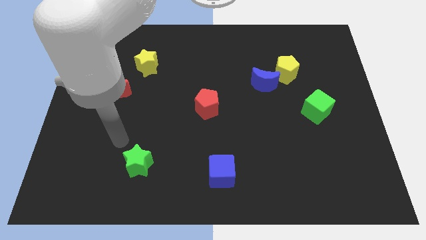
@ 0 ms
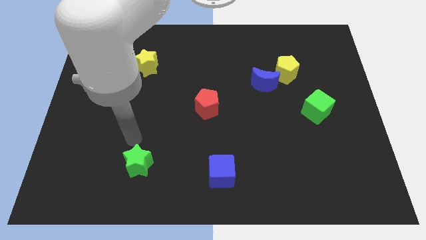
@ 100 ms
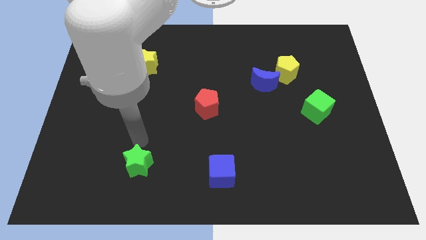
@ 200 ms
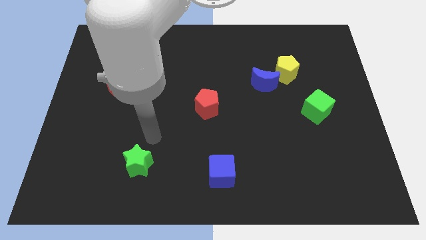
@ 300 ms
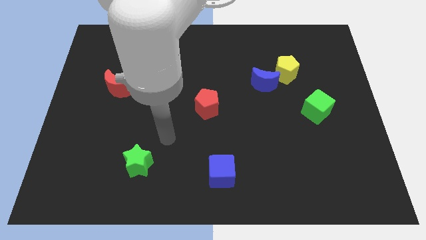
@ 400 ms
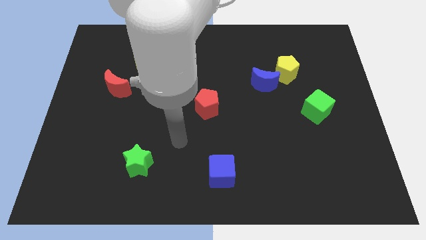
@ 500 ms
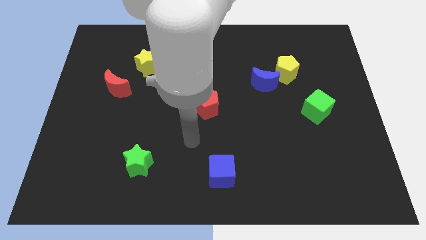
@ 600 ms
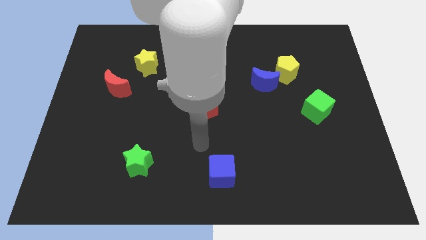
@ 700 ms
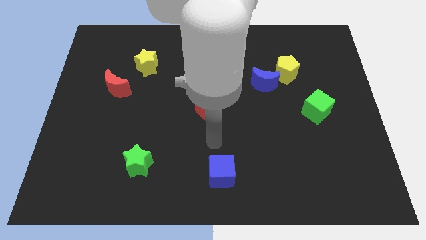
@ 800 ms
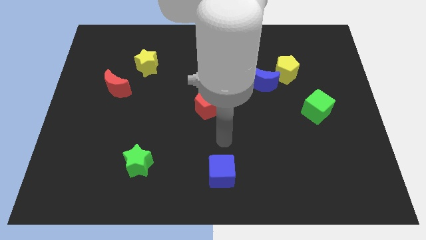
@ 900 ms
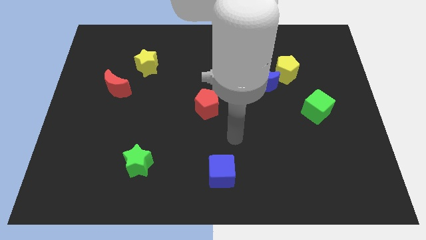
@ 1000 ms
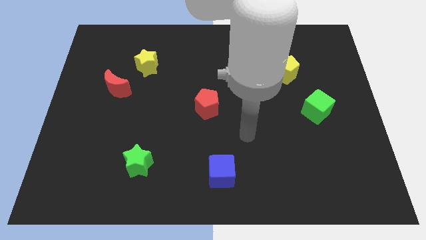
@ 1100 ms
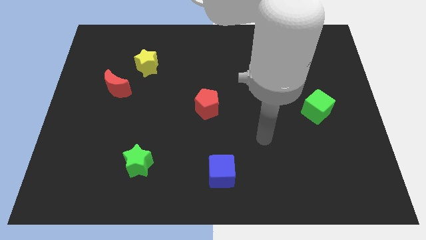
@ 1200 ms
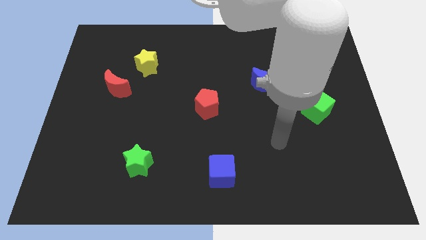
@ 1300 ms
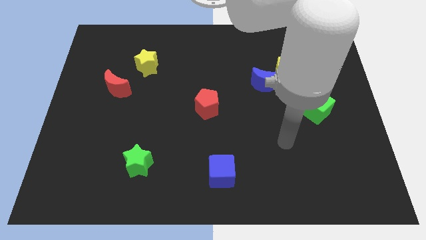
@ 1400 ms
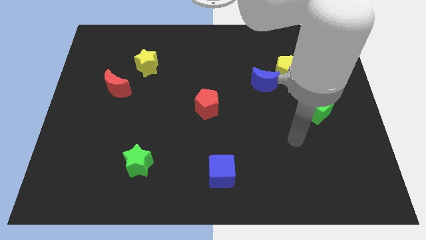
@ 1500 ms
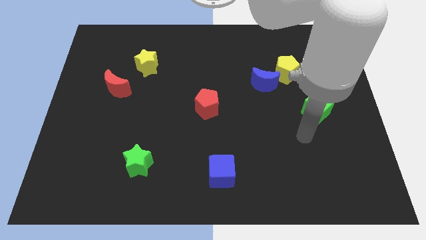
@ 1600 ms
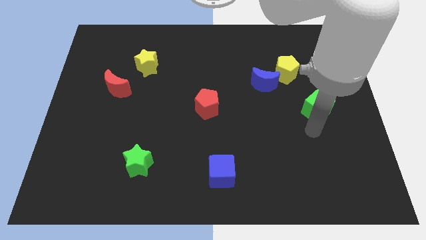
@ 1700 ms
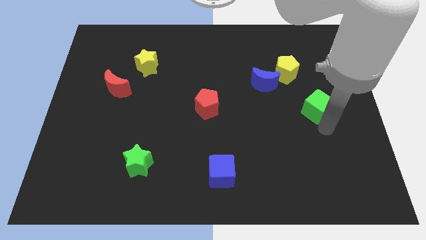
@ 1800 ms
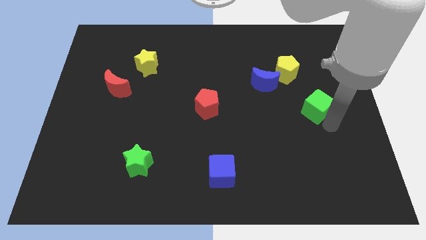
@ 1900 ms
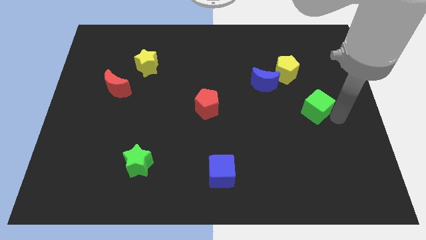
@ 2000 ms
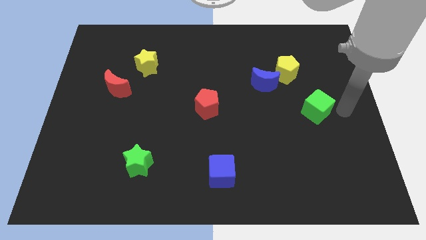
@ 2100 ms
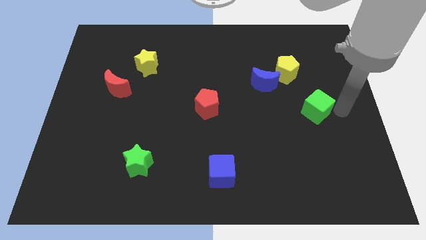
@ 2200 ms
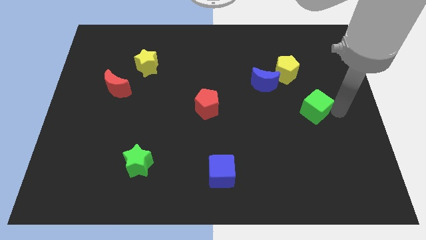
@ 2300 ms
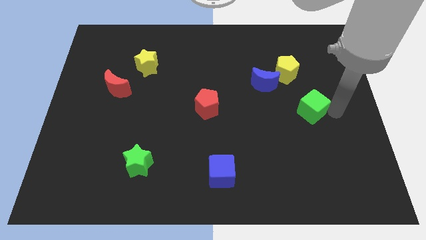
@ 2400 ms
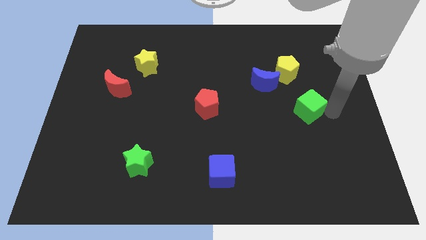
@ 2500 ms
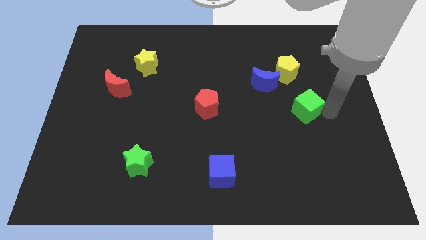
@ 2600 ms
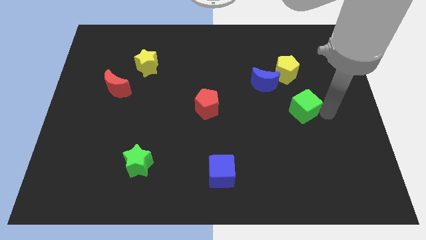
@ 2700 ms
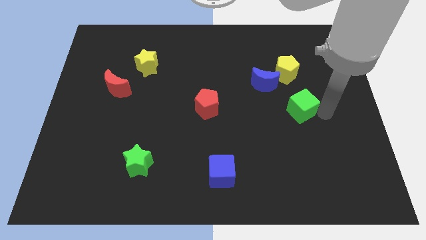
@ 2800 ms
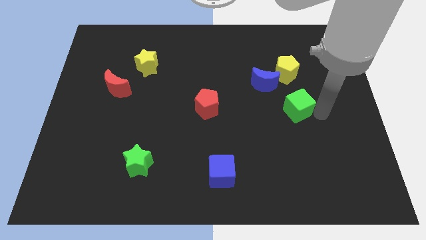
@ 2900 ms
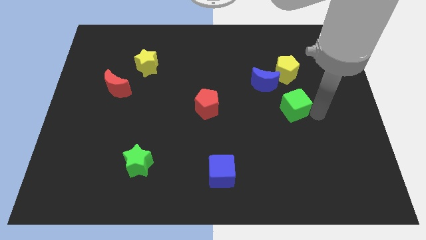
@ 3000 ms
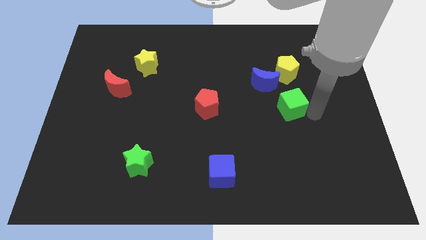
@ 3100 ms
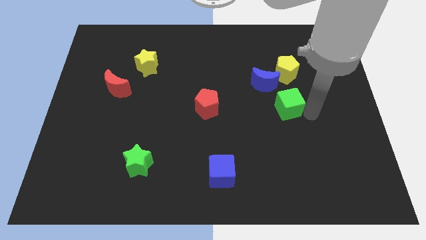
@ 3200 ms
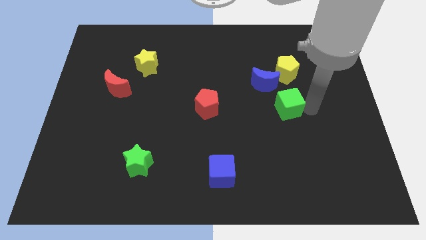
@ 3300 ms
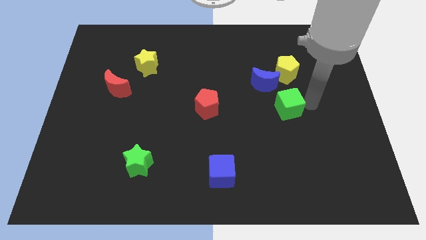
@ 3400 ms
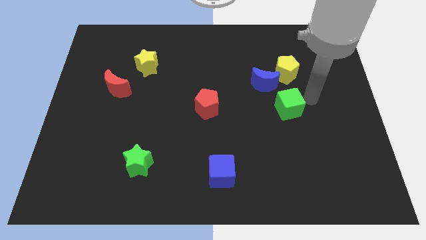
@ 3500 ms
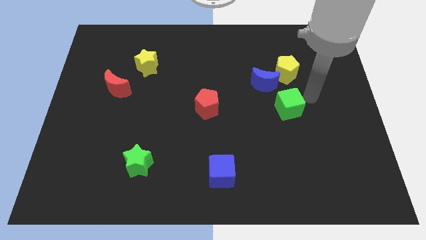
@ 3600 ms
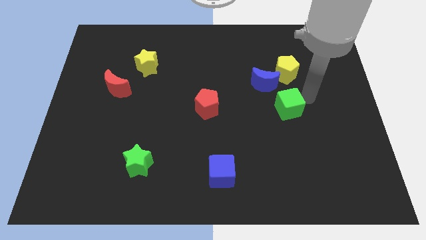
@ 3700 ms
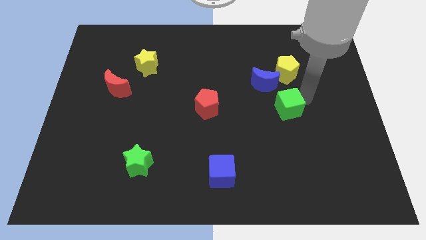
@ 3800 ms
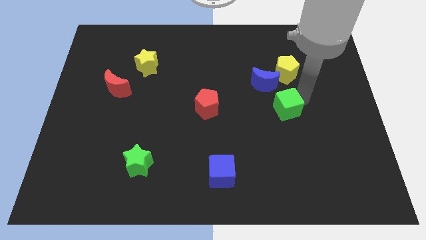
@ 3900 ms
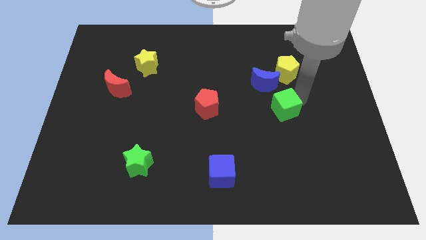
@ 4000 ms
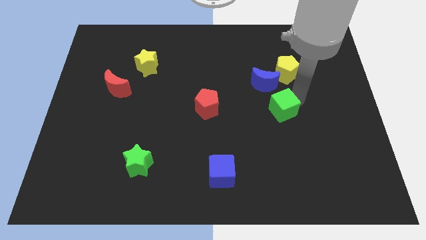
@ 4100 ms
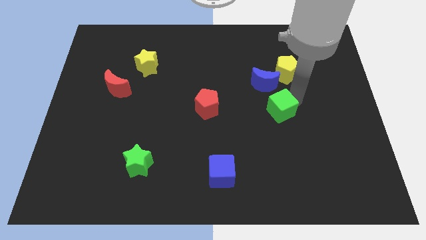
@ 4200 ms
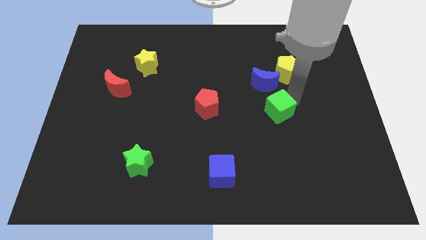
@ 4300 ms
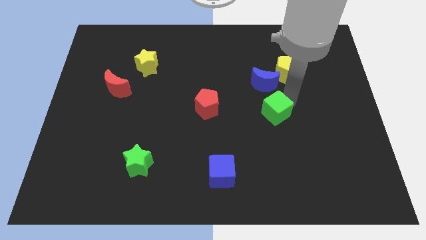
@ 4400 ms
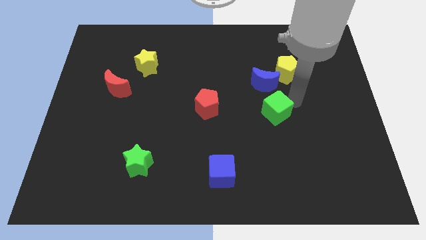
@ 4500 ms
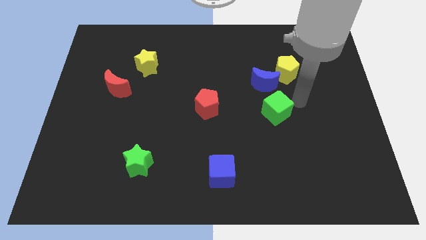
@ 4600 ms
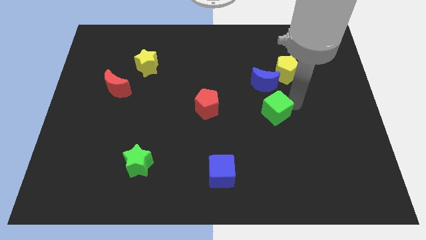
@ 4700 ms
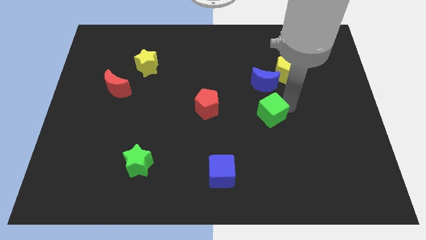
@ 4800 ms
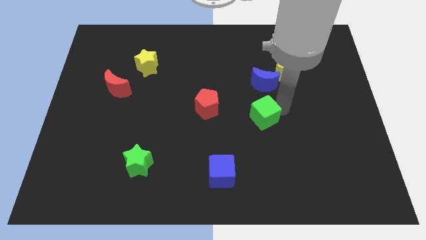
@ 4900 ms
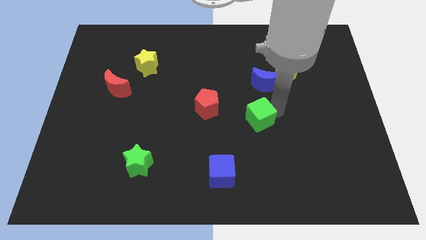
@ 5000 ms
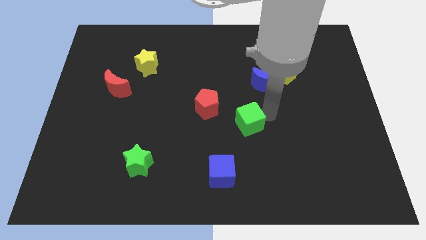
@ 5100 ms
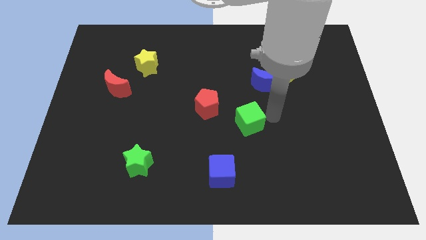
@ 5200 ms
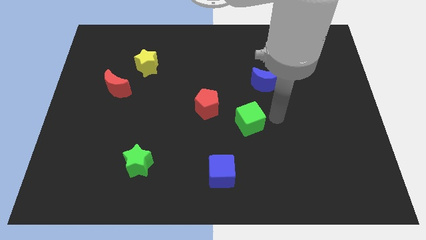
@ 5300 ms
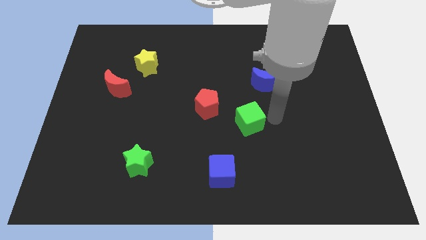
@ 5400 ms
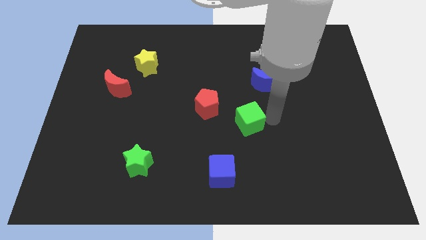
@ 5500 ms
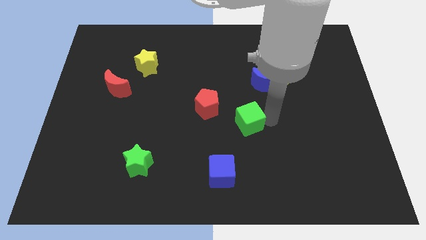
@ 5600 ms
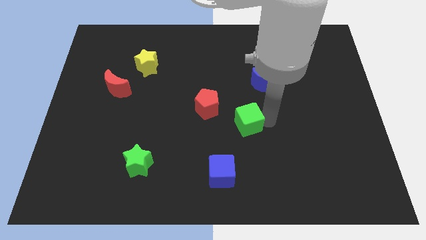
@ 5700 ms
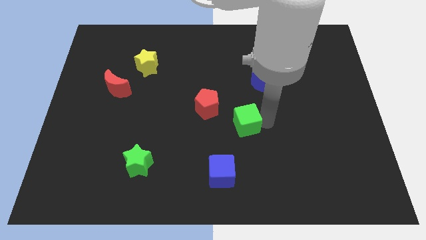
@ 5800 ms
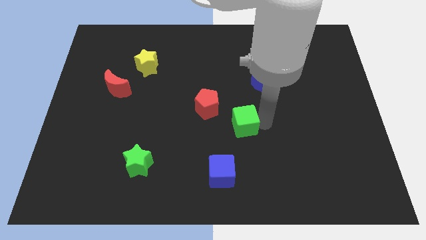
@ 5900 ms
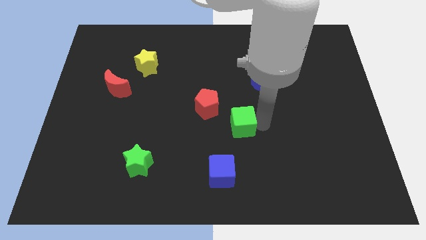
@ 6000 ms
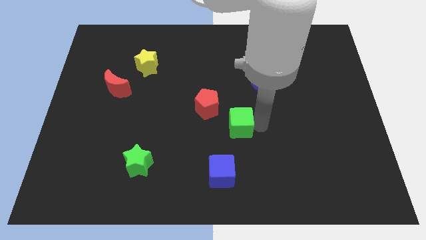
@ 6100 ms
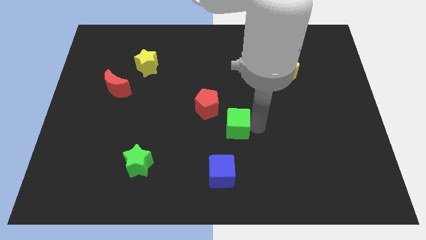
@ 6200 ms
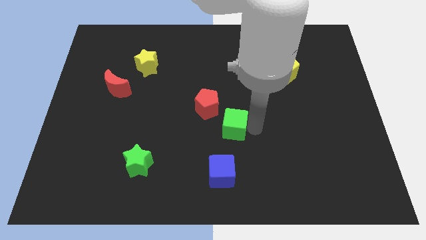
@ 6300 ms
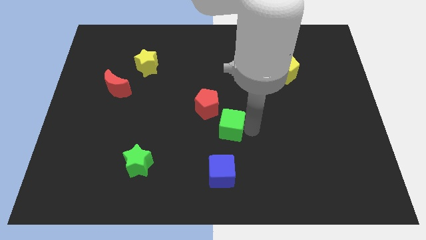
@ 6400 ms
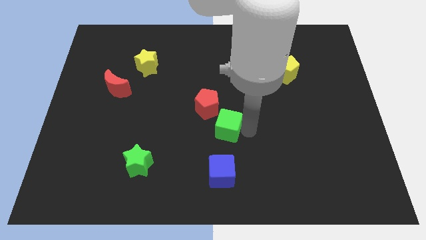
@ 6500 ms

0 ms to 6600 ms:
slide the green cube to the left

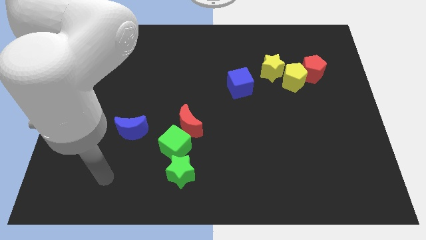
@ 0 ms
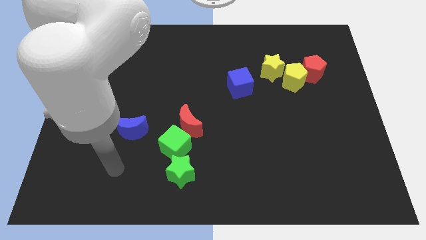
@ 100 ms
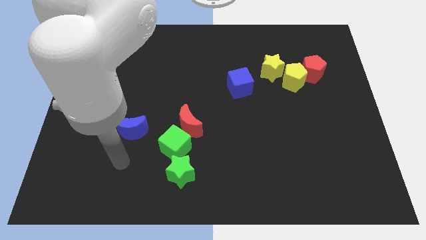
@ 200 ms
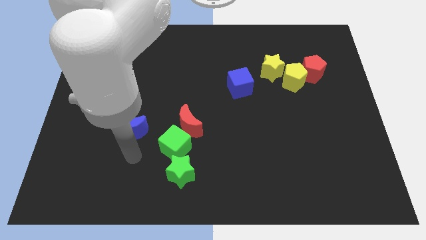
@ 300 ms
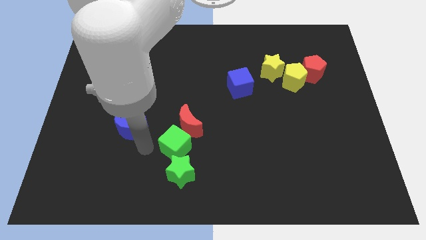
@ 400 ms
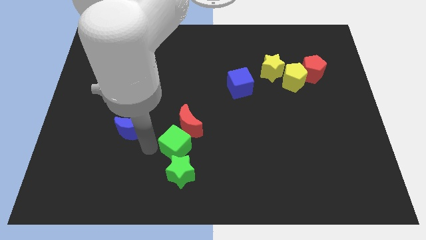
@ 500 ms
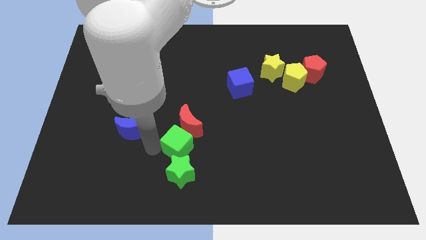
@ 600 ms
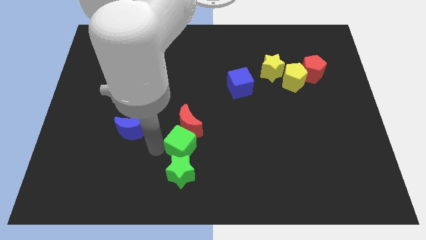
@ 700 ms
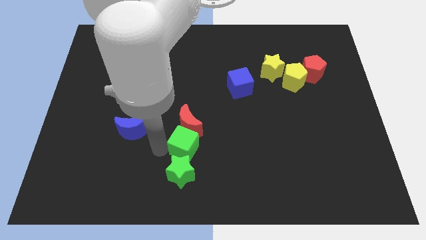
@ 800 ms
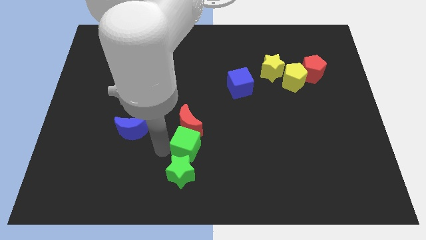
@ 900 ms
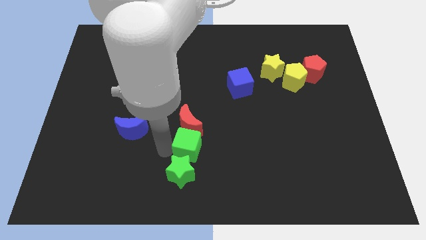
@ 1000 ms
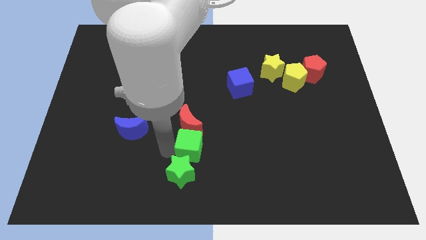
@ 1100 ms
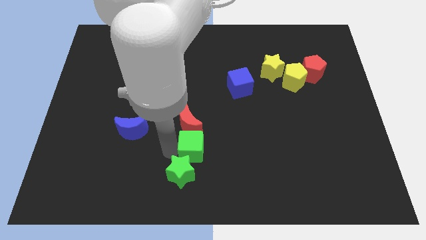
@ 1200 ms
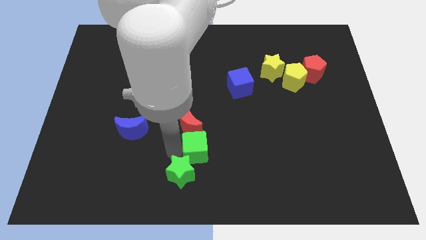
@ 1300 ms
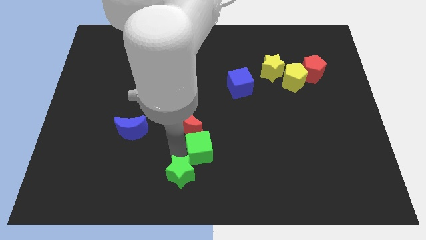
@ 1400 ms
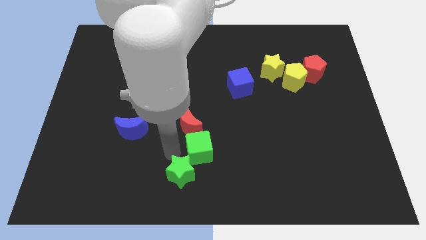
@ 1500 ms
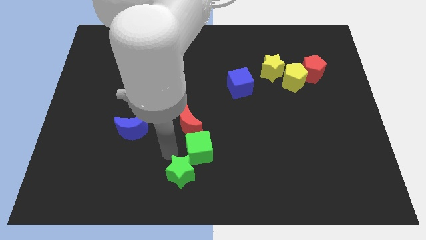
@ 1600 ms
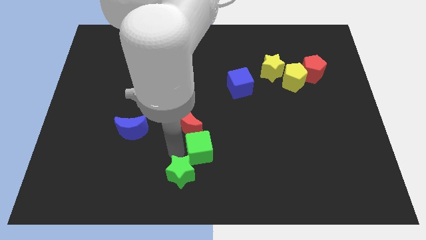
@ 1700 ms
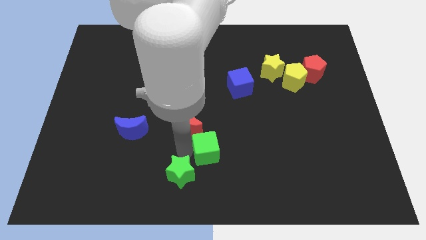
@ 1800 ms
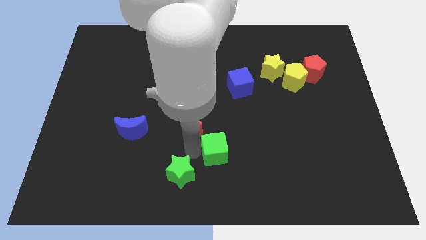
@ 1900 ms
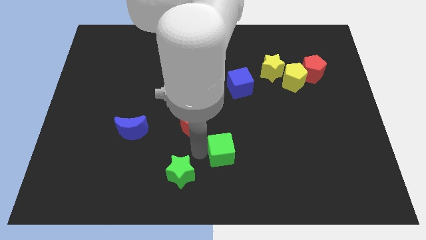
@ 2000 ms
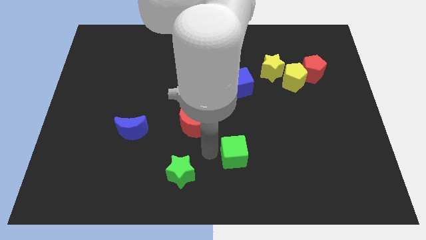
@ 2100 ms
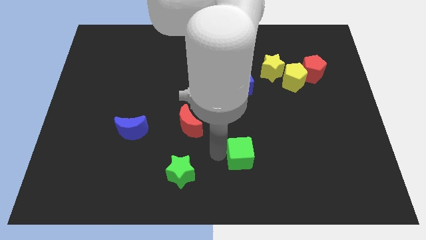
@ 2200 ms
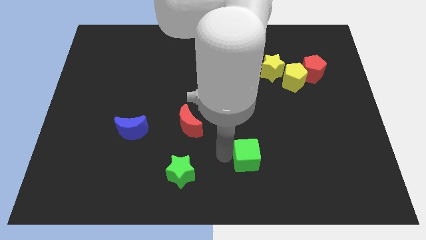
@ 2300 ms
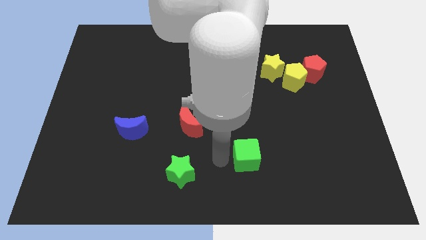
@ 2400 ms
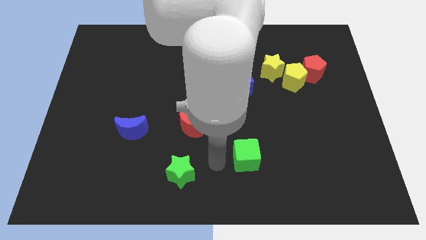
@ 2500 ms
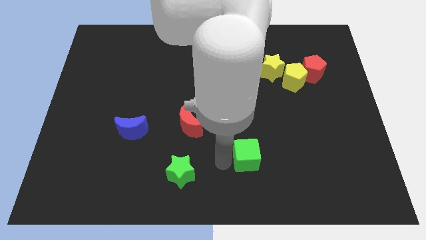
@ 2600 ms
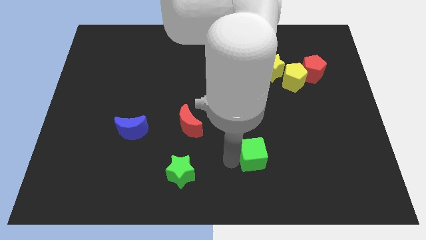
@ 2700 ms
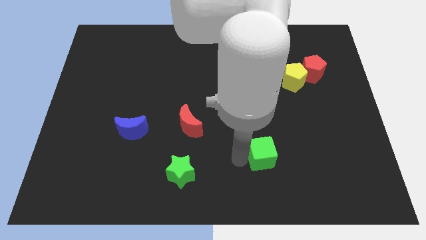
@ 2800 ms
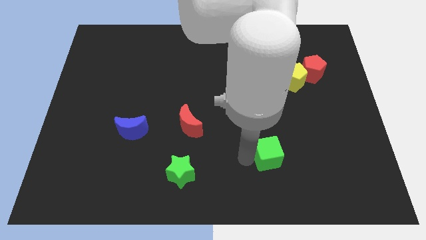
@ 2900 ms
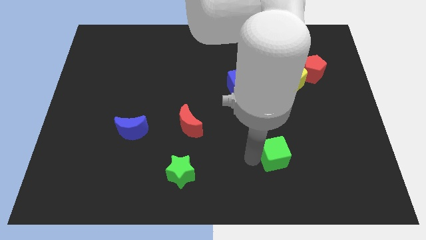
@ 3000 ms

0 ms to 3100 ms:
move the green cube to the right
